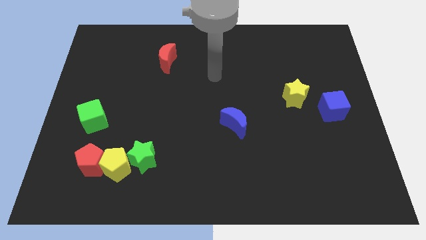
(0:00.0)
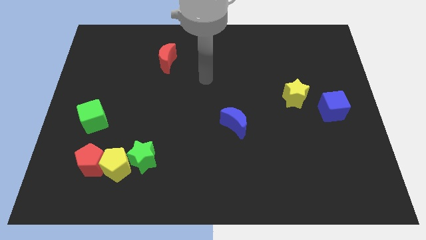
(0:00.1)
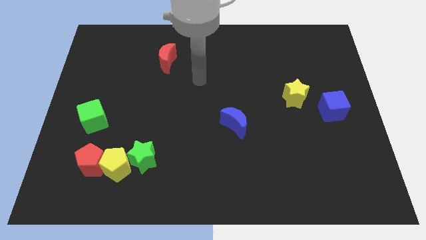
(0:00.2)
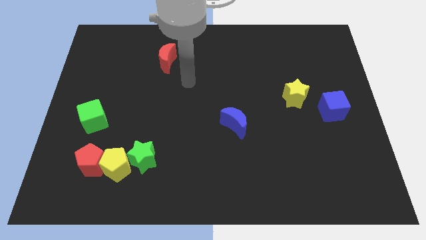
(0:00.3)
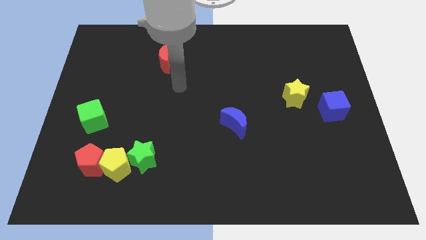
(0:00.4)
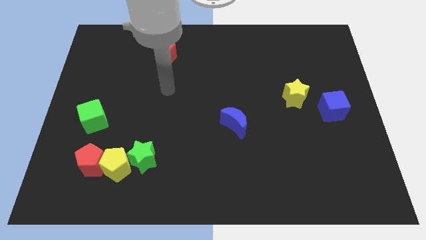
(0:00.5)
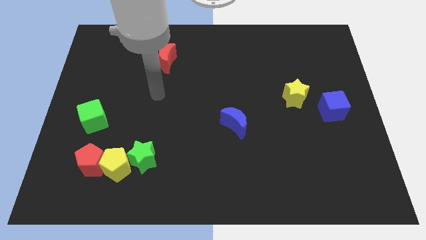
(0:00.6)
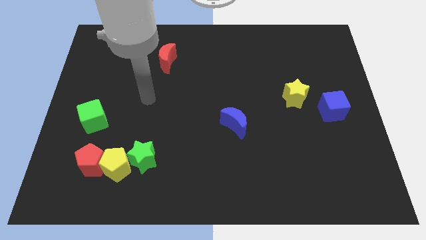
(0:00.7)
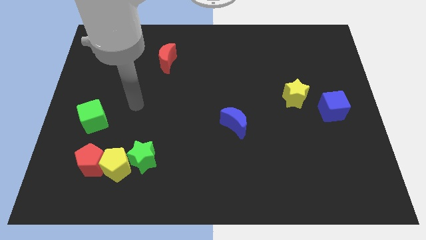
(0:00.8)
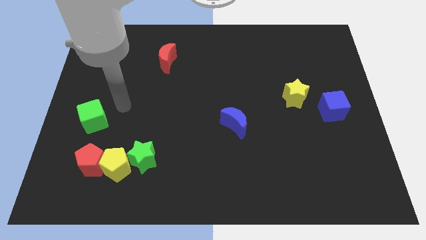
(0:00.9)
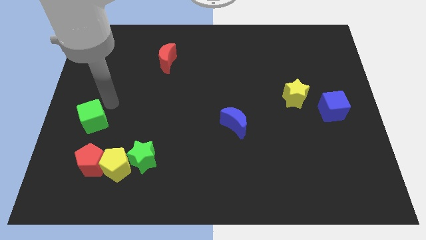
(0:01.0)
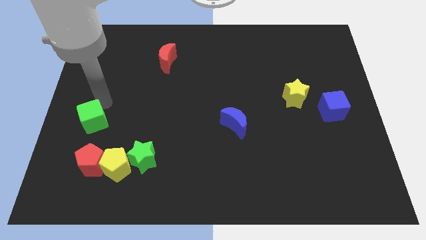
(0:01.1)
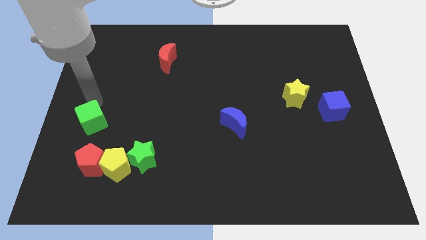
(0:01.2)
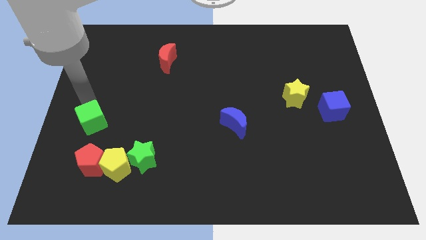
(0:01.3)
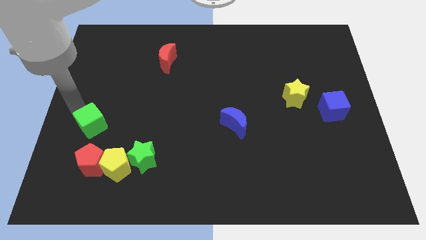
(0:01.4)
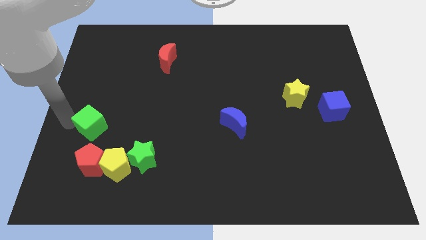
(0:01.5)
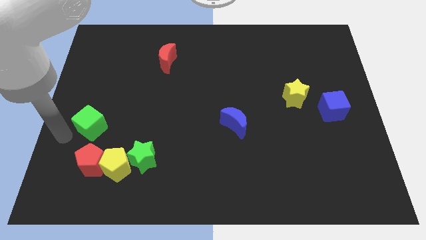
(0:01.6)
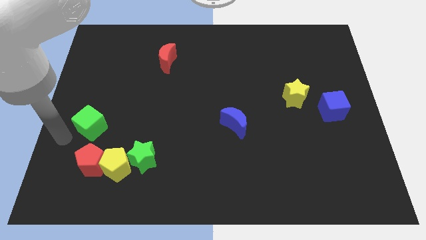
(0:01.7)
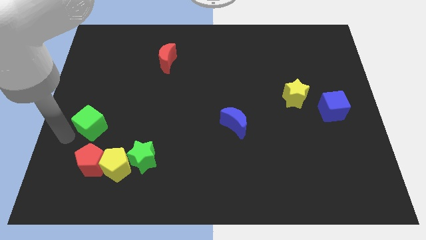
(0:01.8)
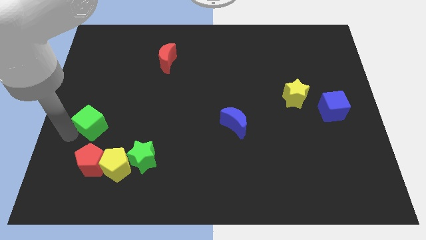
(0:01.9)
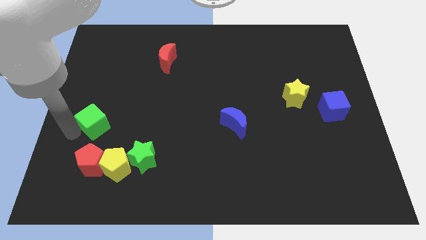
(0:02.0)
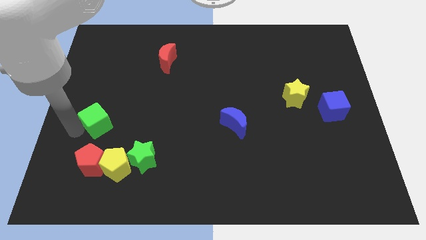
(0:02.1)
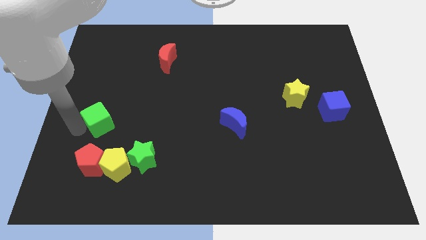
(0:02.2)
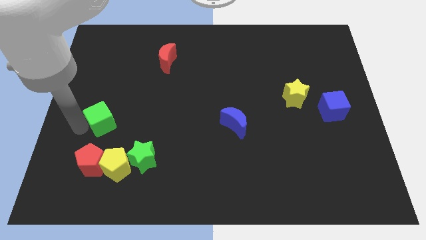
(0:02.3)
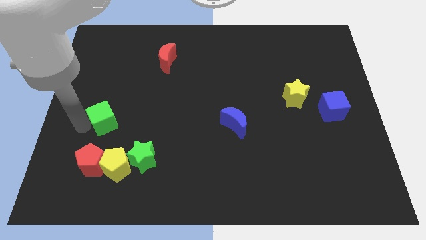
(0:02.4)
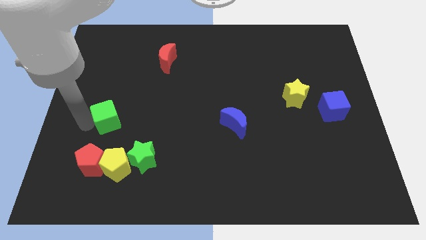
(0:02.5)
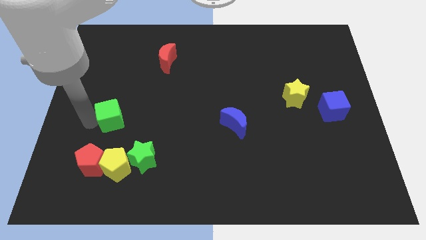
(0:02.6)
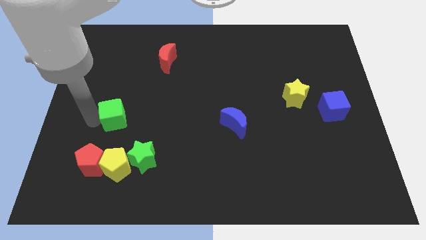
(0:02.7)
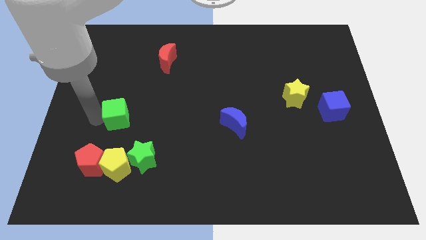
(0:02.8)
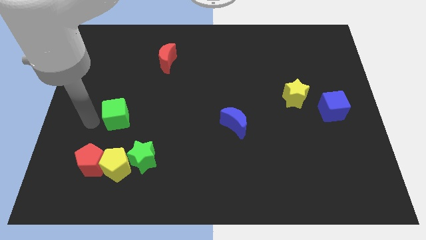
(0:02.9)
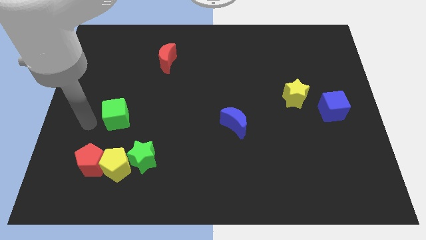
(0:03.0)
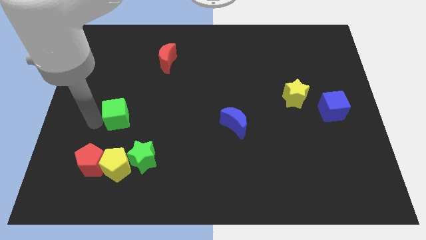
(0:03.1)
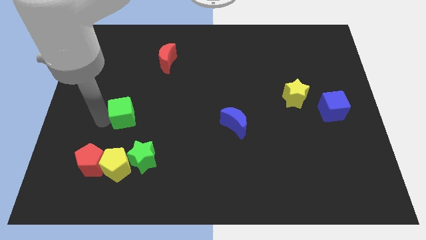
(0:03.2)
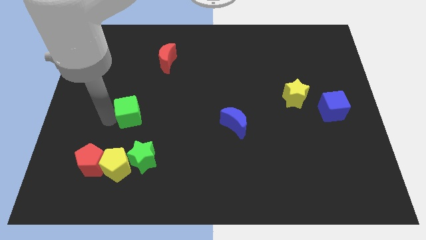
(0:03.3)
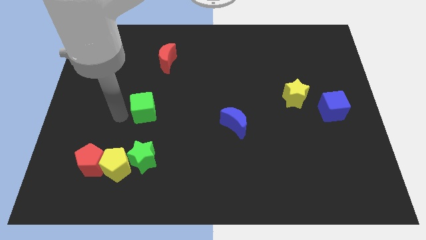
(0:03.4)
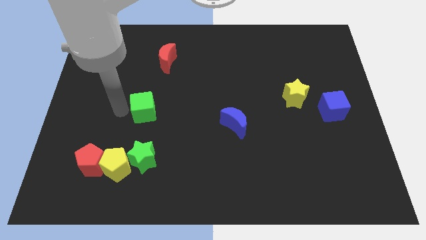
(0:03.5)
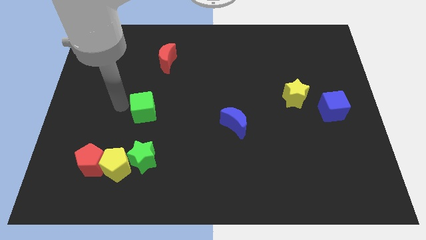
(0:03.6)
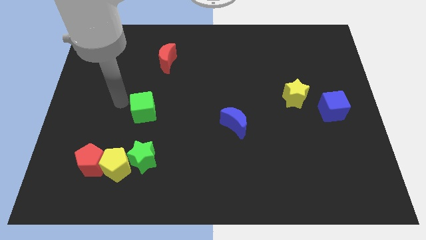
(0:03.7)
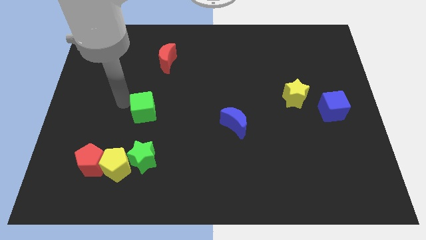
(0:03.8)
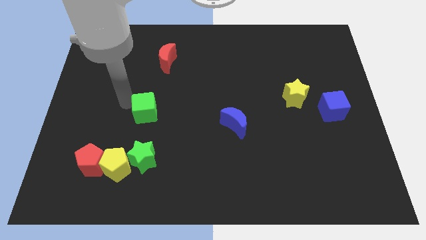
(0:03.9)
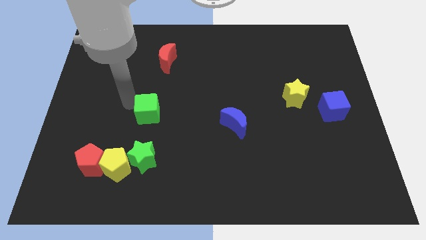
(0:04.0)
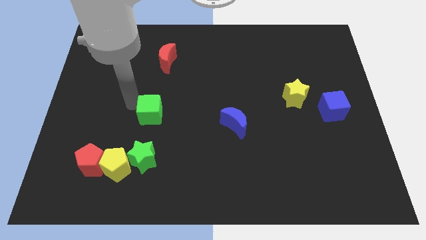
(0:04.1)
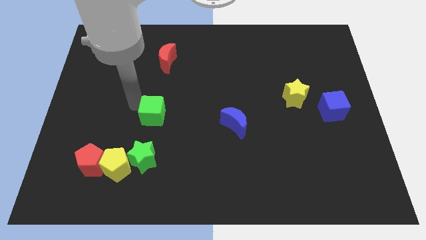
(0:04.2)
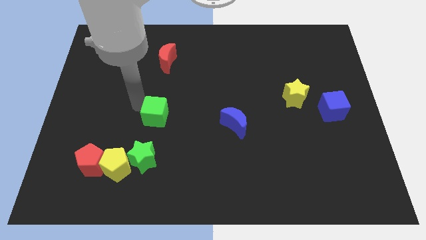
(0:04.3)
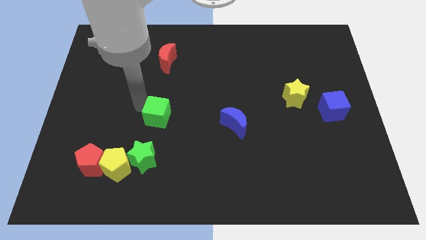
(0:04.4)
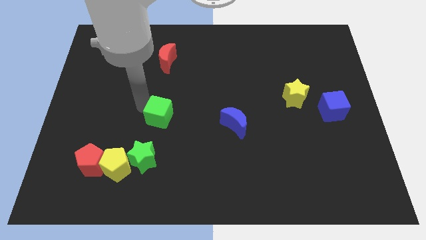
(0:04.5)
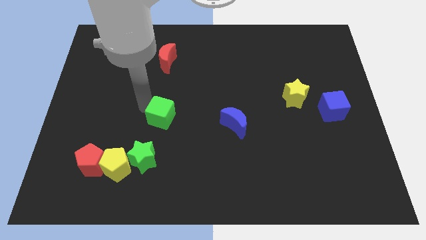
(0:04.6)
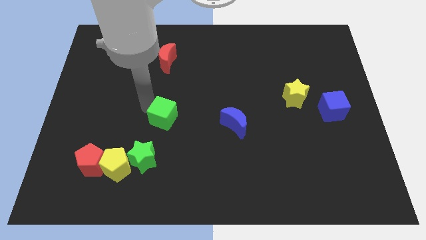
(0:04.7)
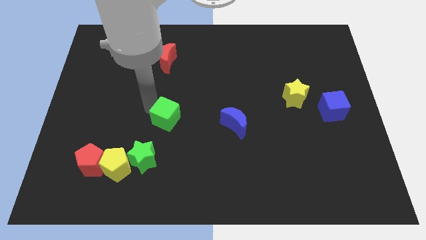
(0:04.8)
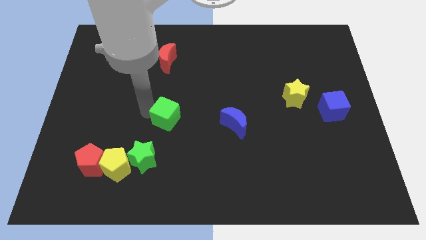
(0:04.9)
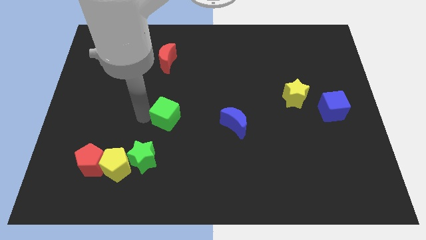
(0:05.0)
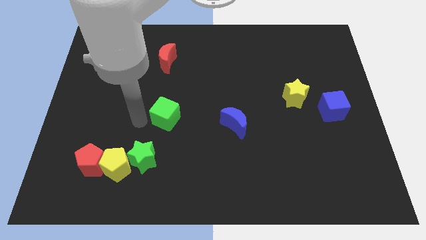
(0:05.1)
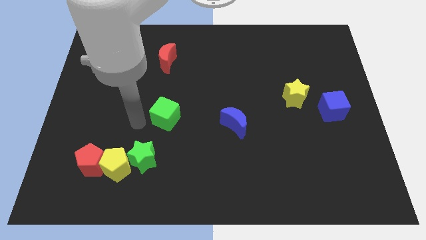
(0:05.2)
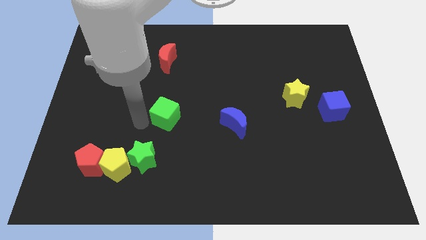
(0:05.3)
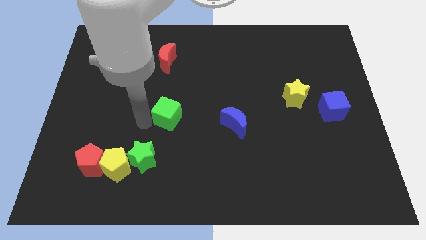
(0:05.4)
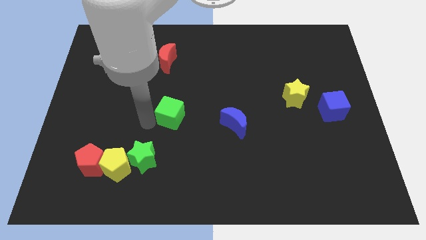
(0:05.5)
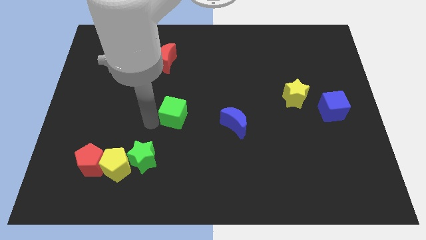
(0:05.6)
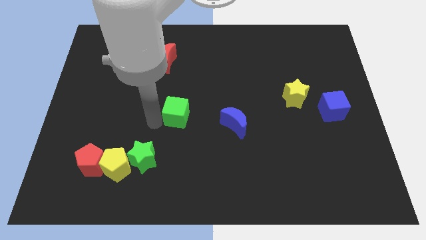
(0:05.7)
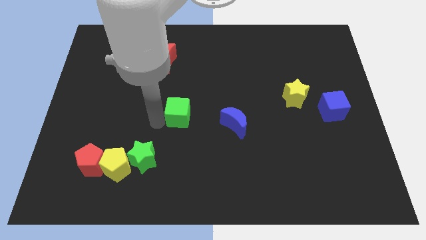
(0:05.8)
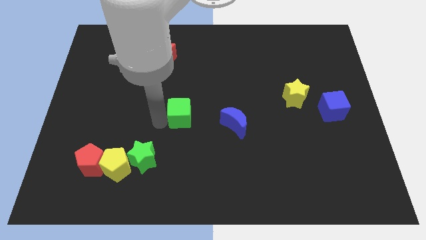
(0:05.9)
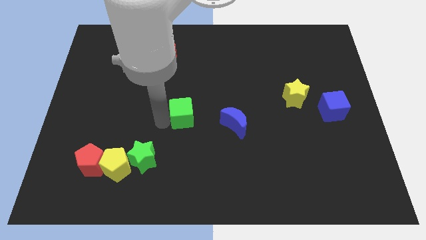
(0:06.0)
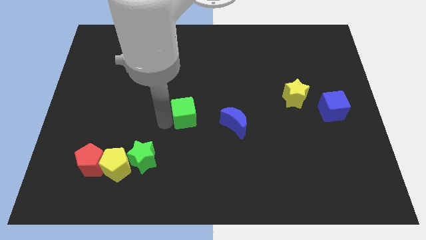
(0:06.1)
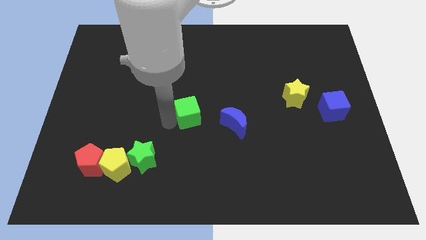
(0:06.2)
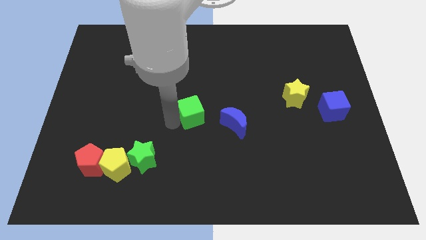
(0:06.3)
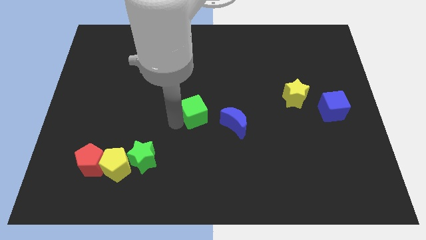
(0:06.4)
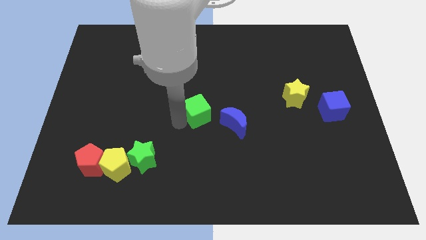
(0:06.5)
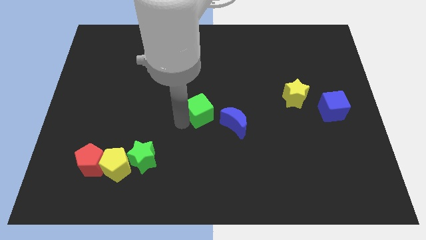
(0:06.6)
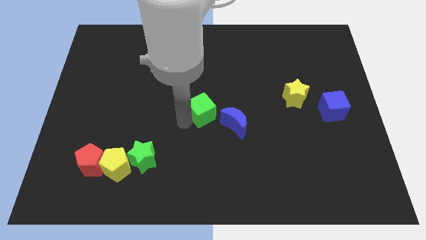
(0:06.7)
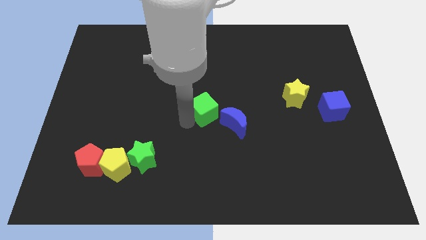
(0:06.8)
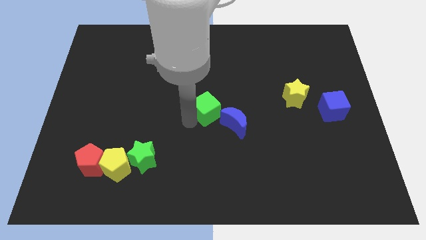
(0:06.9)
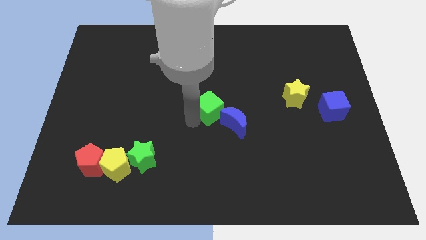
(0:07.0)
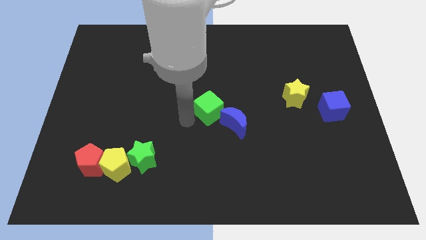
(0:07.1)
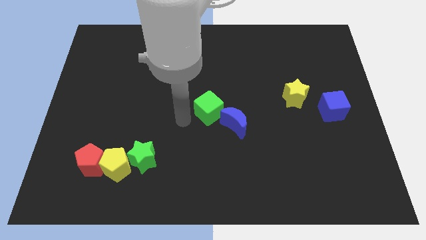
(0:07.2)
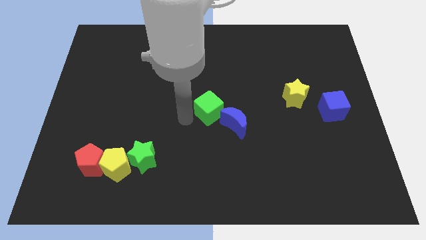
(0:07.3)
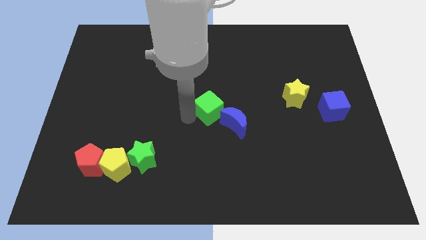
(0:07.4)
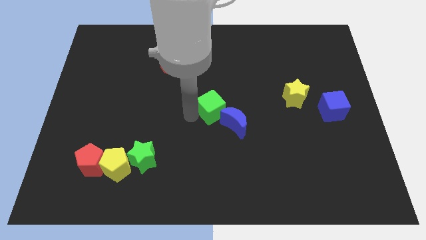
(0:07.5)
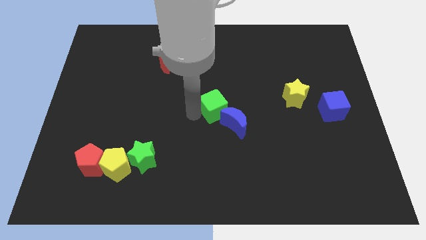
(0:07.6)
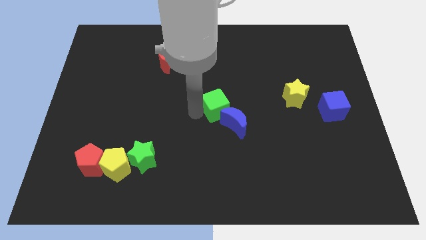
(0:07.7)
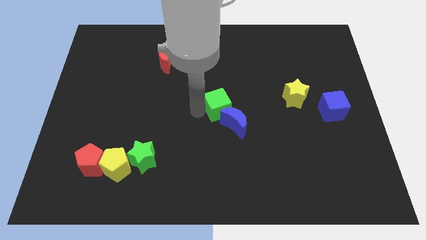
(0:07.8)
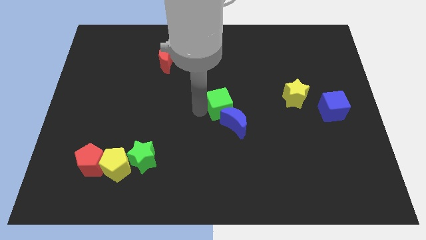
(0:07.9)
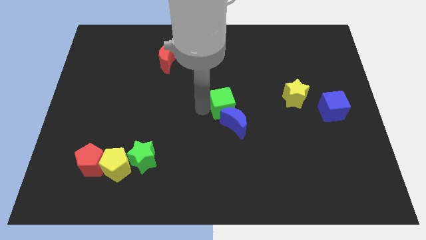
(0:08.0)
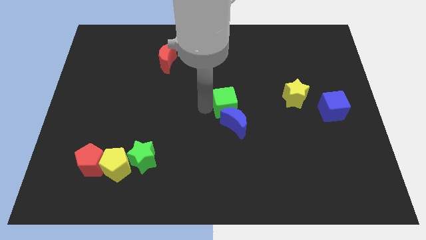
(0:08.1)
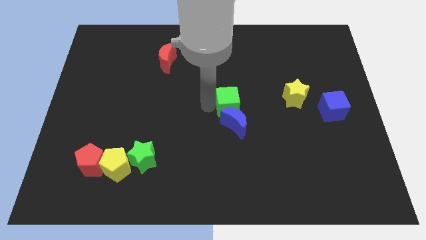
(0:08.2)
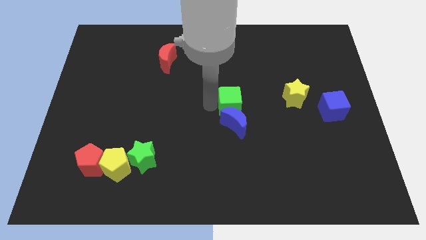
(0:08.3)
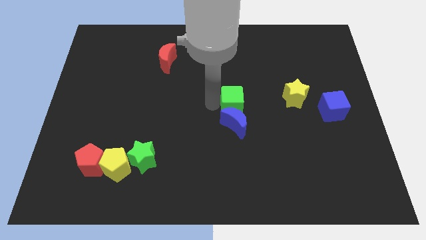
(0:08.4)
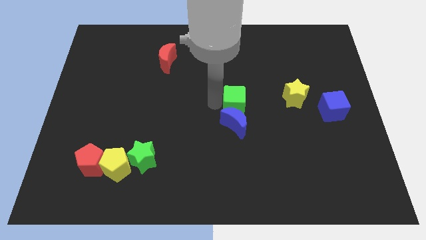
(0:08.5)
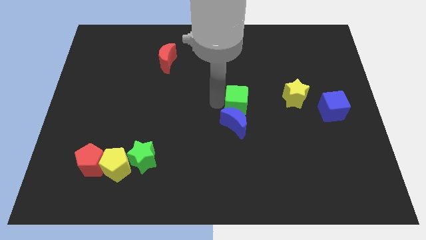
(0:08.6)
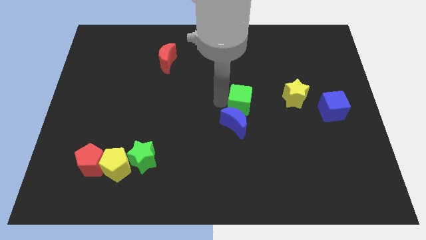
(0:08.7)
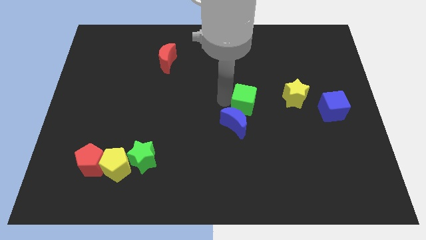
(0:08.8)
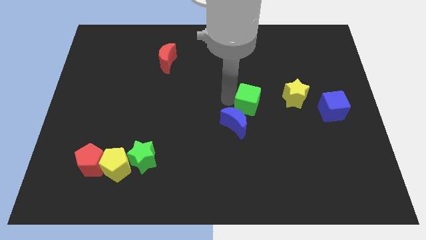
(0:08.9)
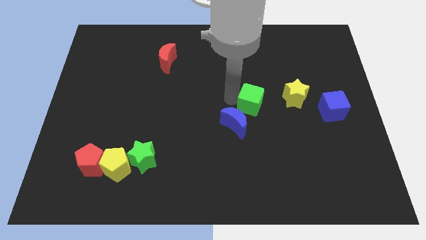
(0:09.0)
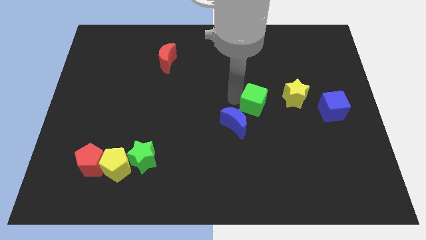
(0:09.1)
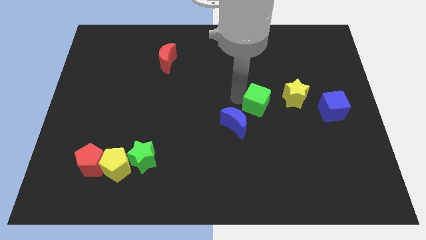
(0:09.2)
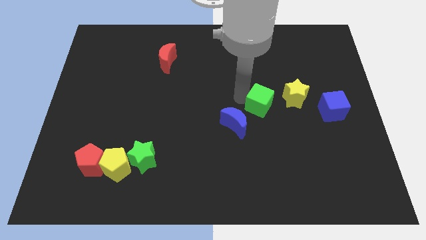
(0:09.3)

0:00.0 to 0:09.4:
put the green cube to the bottom left side of the yellow star
